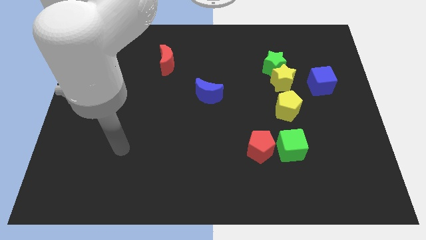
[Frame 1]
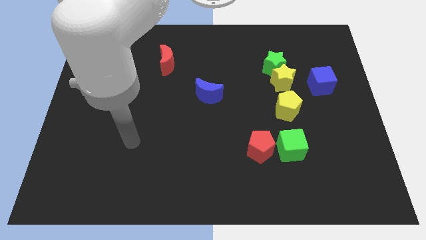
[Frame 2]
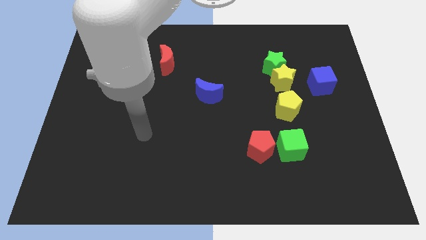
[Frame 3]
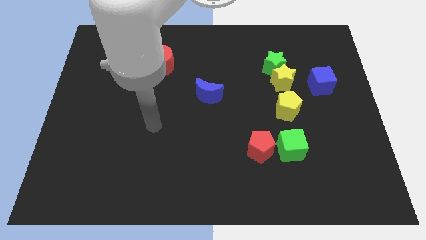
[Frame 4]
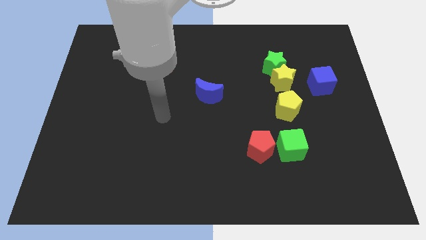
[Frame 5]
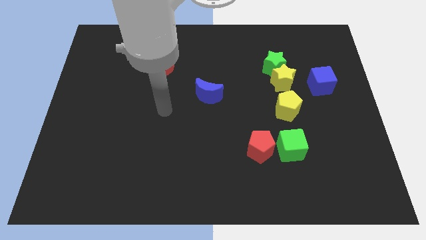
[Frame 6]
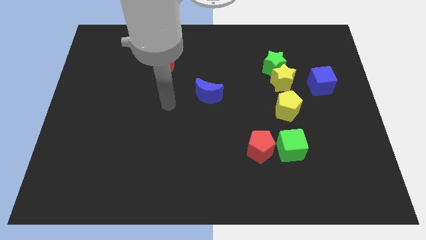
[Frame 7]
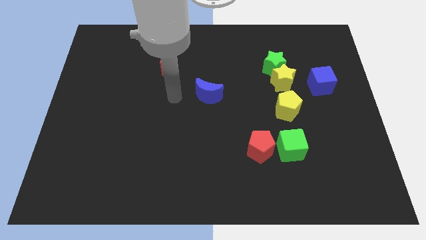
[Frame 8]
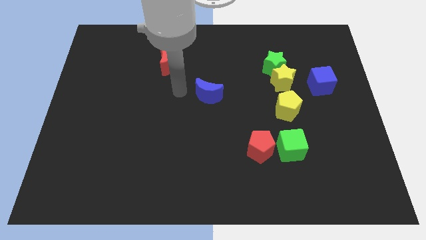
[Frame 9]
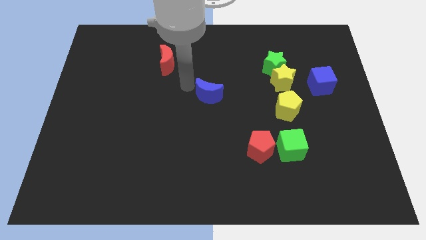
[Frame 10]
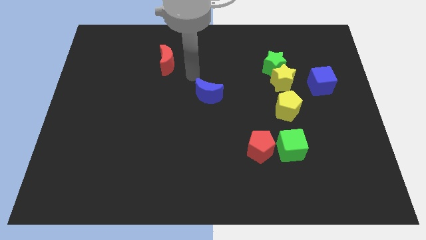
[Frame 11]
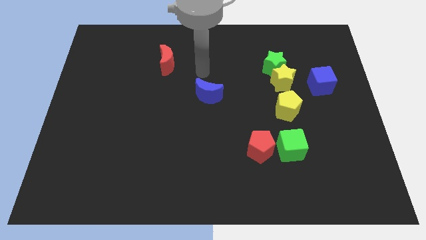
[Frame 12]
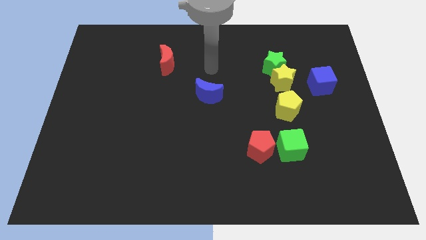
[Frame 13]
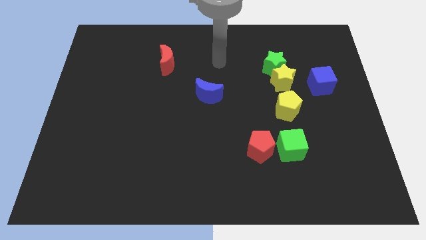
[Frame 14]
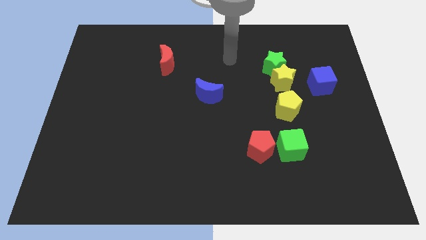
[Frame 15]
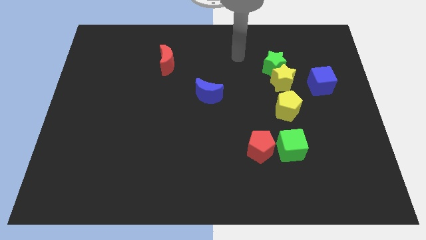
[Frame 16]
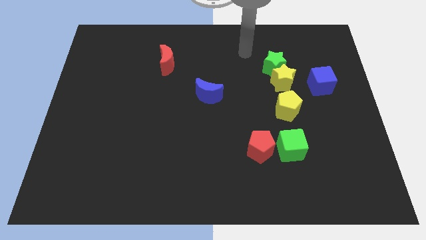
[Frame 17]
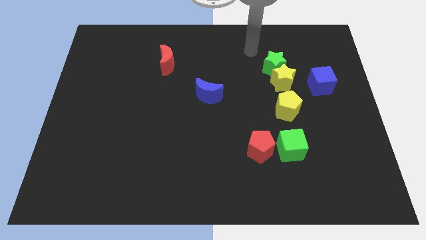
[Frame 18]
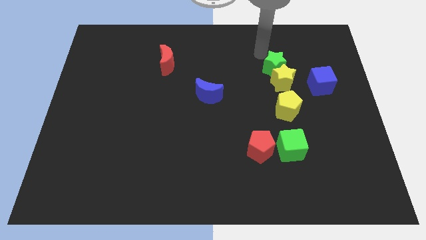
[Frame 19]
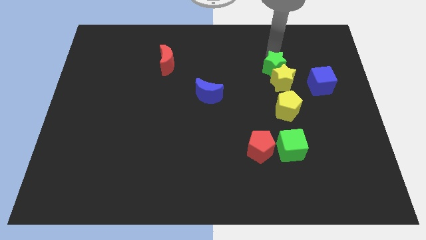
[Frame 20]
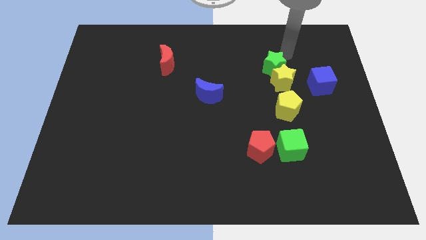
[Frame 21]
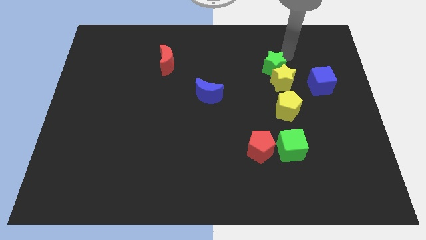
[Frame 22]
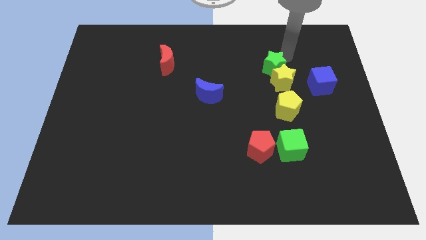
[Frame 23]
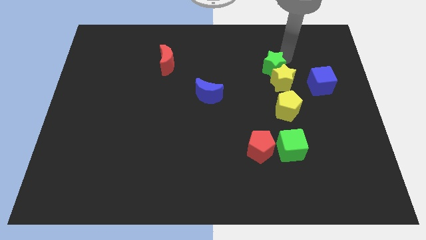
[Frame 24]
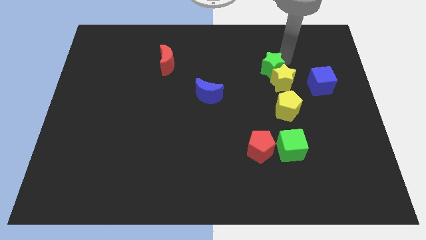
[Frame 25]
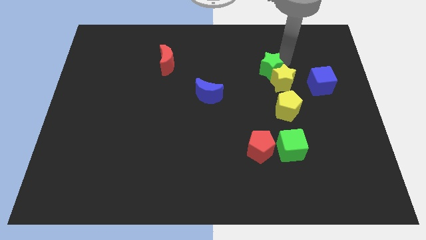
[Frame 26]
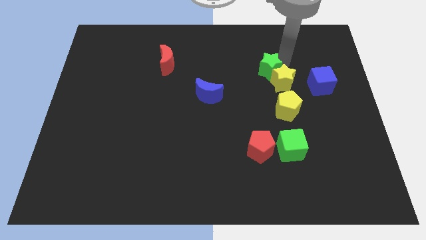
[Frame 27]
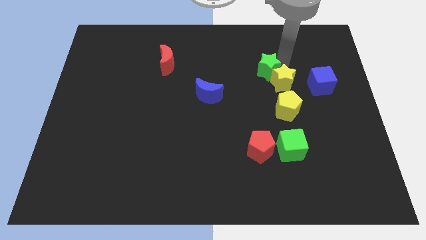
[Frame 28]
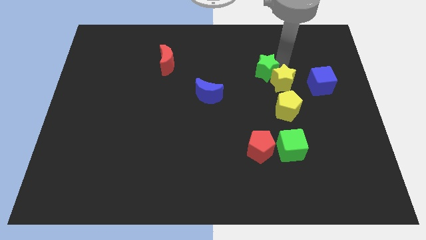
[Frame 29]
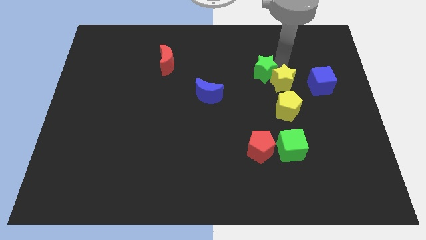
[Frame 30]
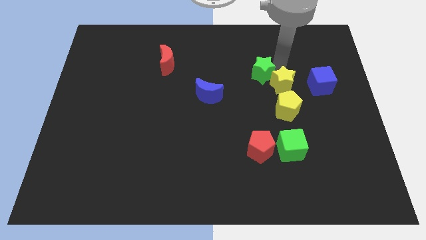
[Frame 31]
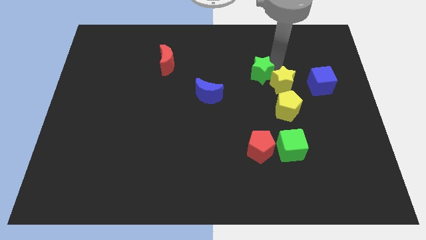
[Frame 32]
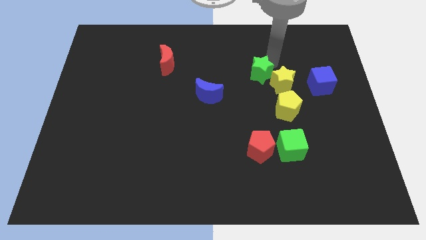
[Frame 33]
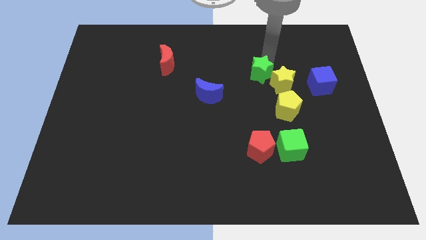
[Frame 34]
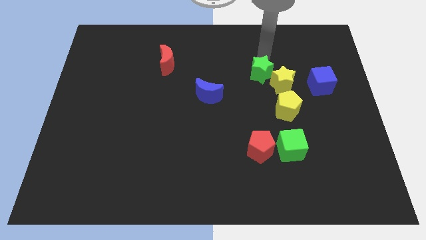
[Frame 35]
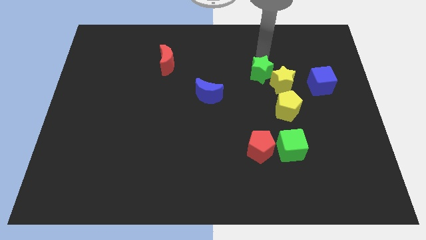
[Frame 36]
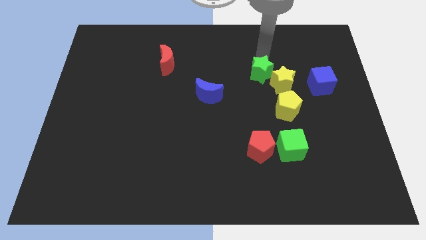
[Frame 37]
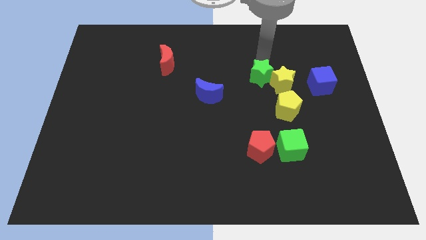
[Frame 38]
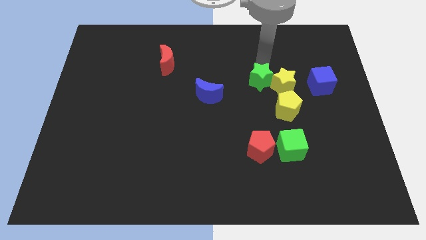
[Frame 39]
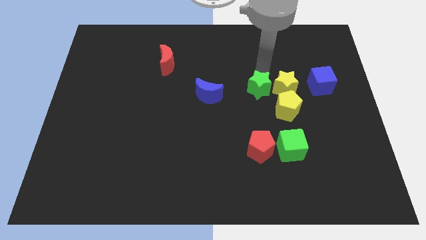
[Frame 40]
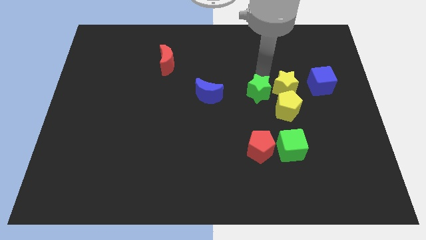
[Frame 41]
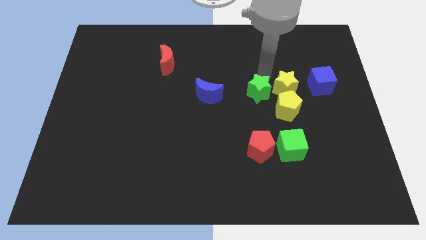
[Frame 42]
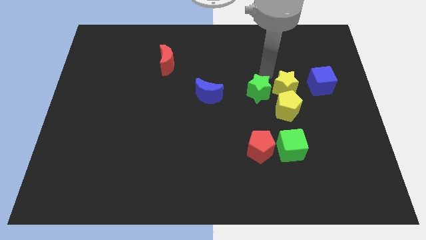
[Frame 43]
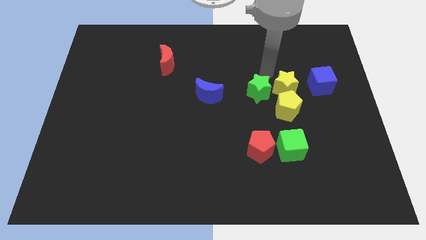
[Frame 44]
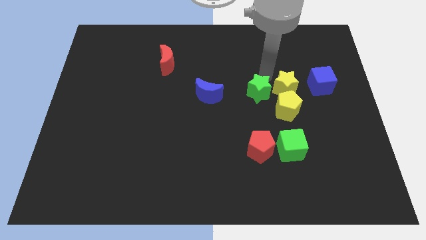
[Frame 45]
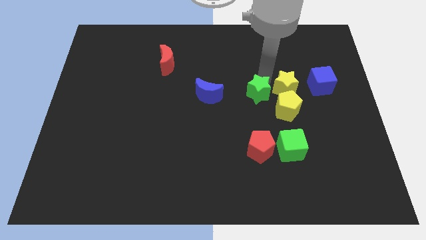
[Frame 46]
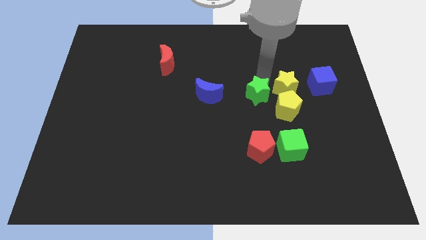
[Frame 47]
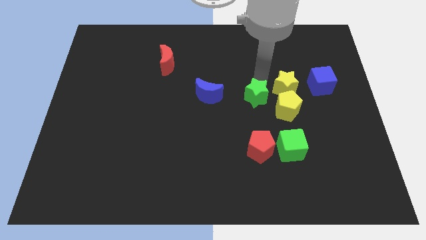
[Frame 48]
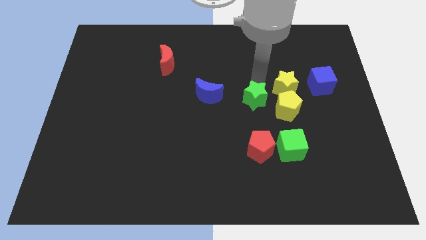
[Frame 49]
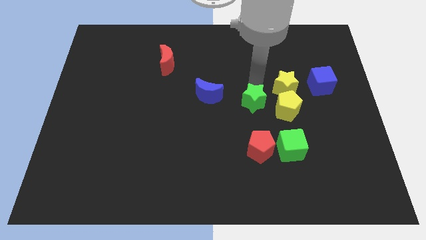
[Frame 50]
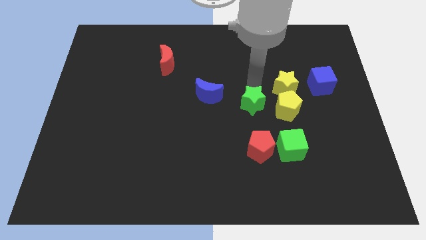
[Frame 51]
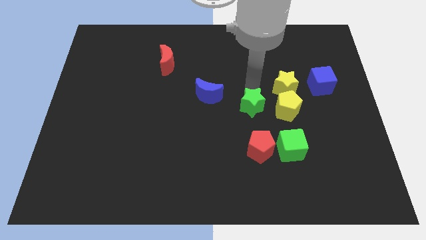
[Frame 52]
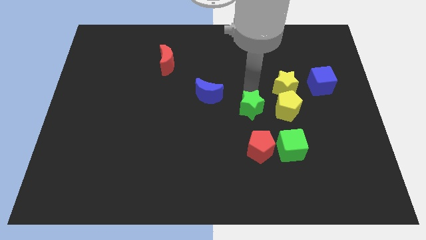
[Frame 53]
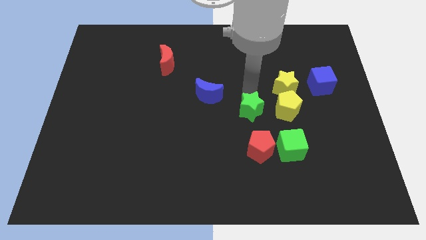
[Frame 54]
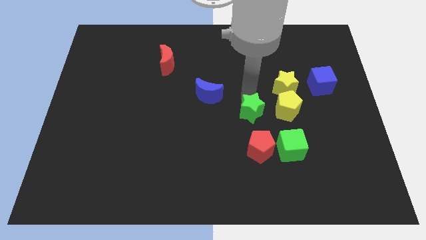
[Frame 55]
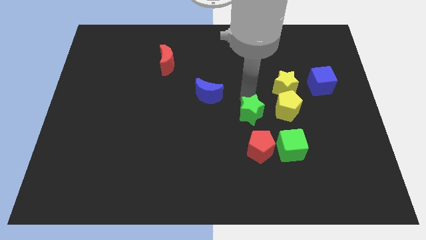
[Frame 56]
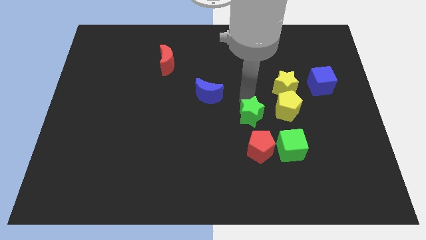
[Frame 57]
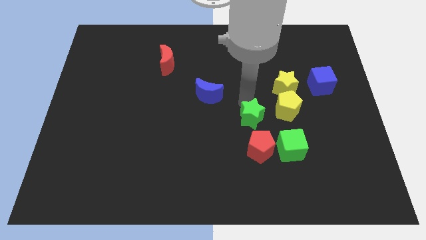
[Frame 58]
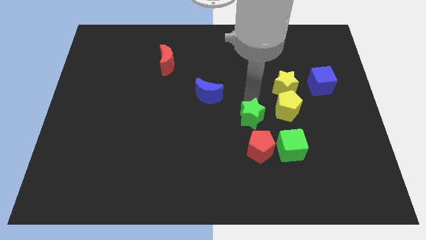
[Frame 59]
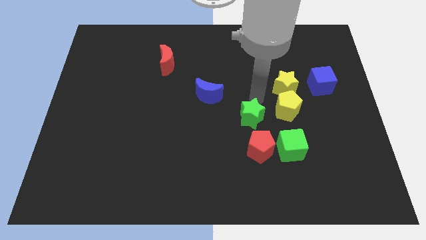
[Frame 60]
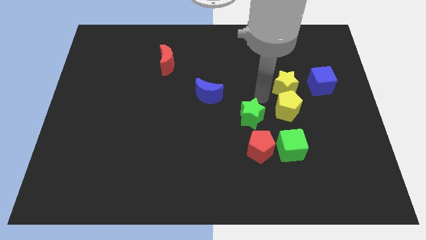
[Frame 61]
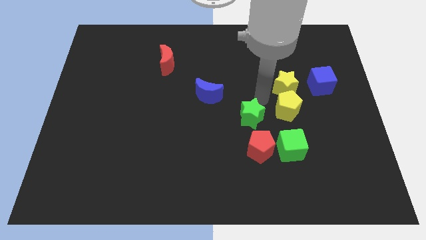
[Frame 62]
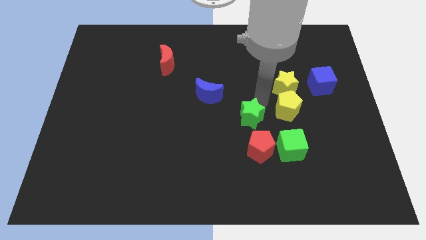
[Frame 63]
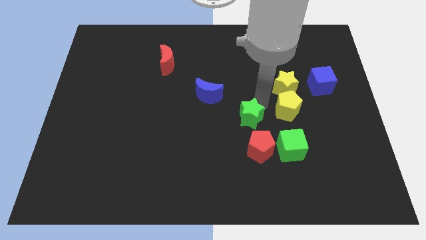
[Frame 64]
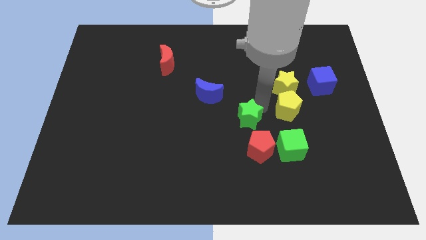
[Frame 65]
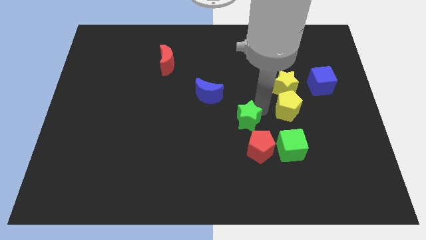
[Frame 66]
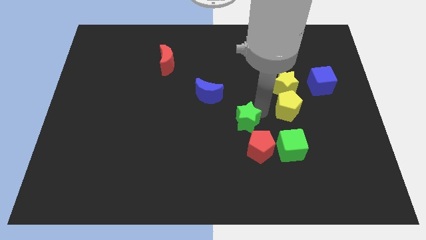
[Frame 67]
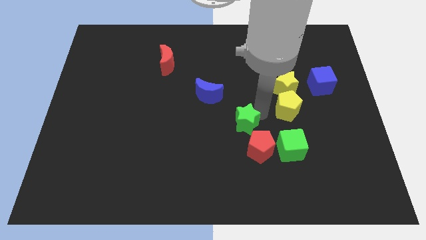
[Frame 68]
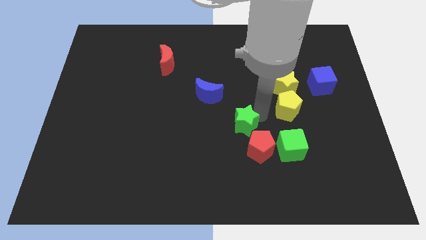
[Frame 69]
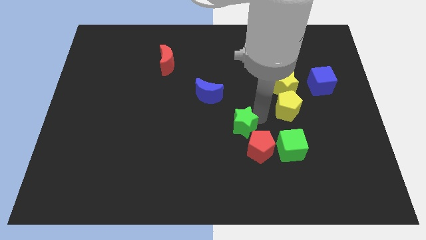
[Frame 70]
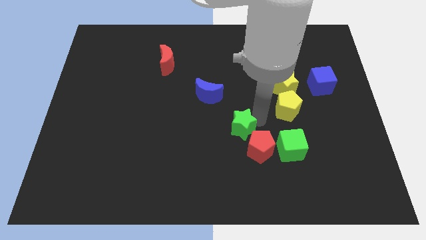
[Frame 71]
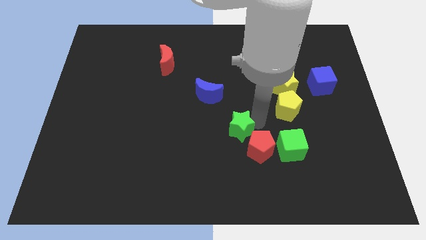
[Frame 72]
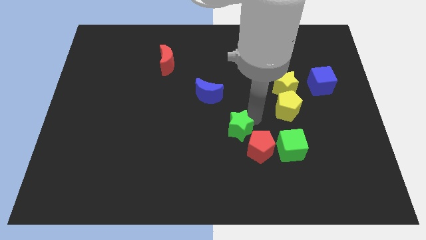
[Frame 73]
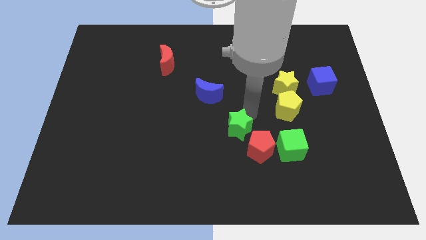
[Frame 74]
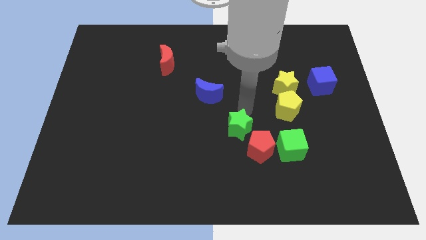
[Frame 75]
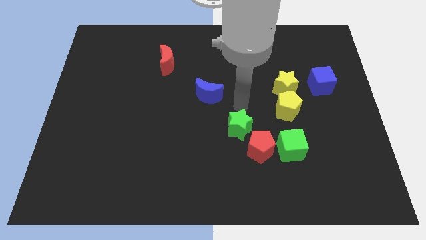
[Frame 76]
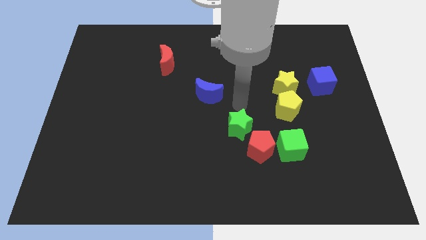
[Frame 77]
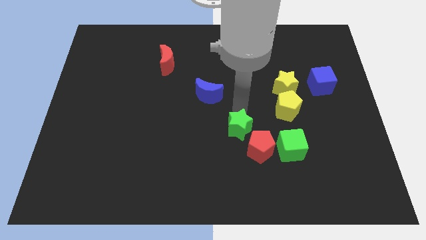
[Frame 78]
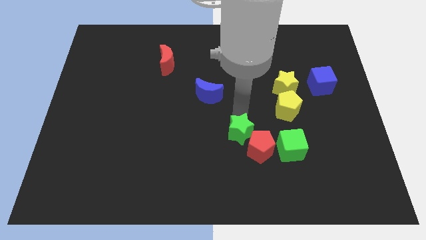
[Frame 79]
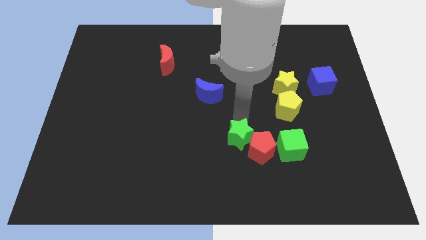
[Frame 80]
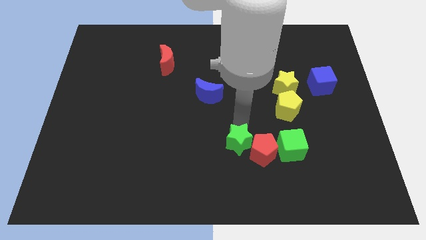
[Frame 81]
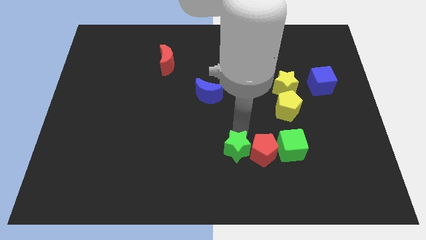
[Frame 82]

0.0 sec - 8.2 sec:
put the green star diagonally down and to the left of the red pentagon
